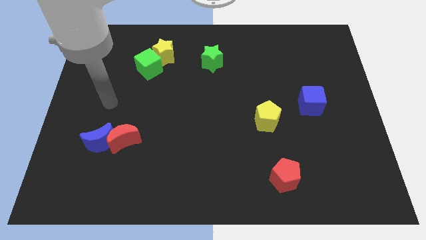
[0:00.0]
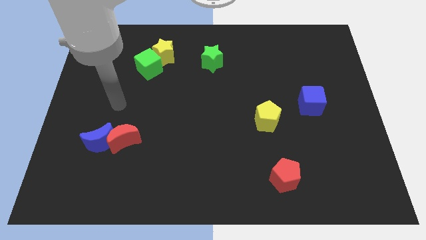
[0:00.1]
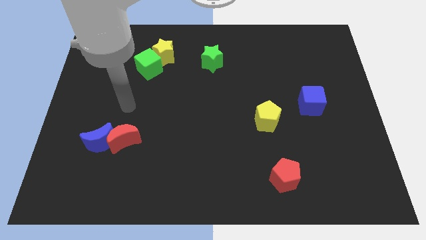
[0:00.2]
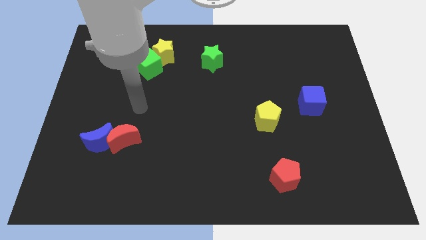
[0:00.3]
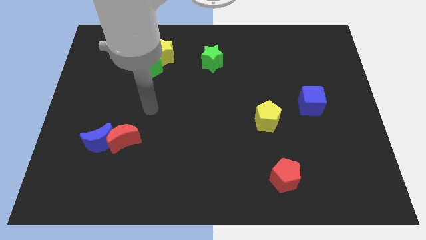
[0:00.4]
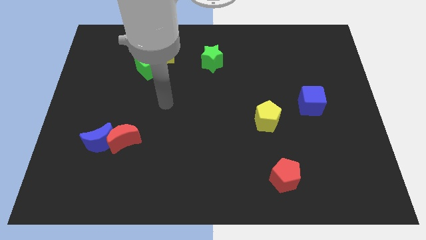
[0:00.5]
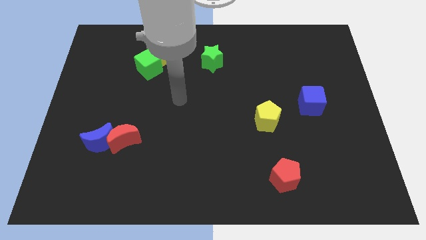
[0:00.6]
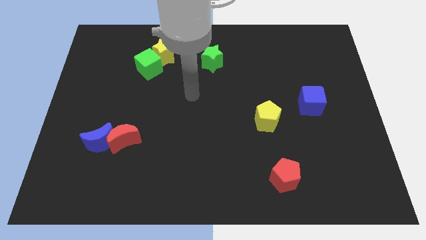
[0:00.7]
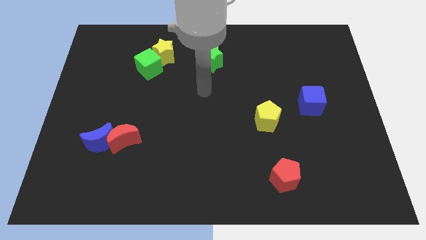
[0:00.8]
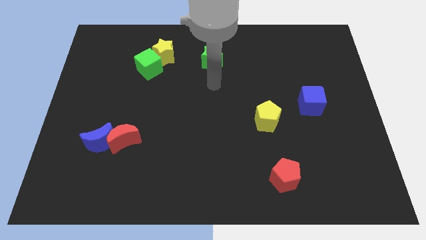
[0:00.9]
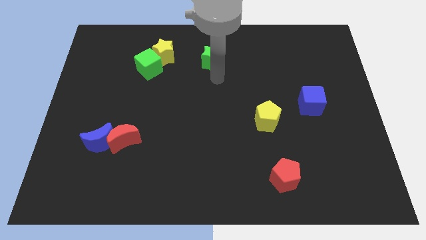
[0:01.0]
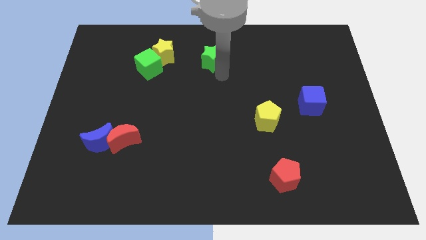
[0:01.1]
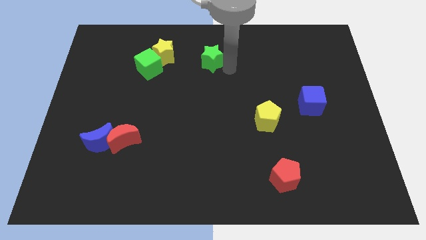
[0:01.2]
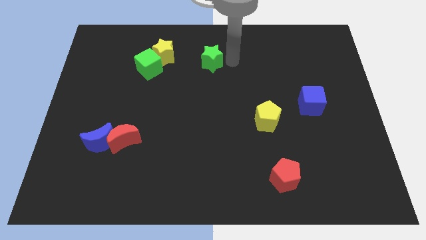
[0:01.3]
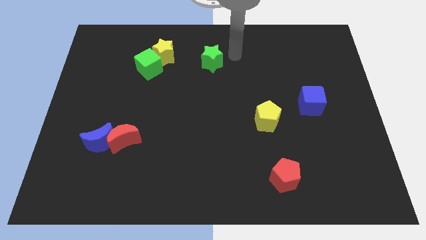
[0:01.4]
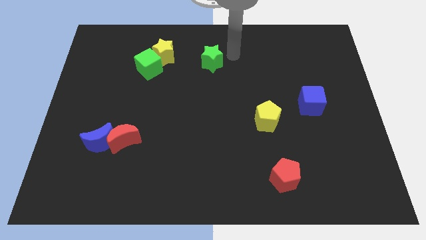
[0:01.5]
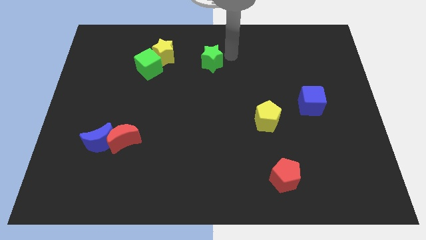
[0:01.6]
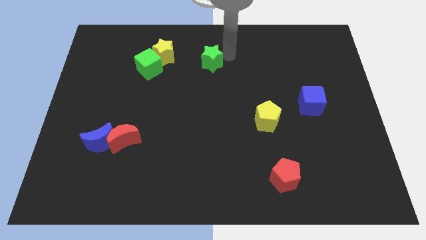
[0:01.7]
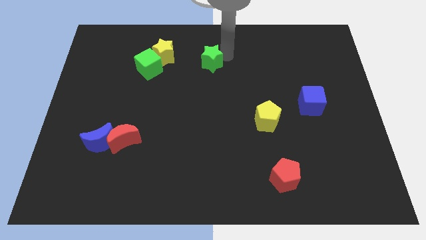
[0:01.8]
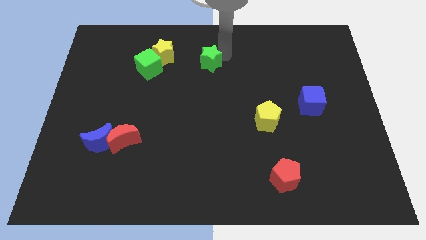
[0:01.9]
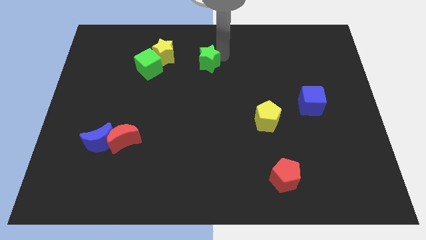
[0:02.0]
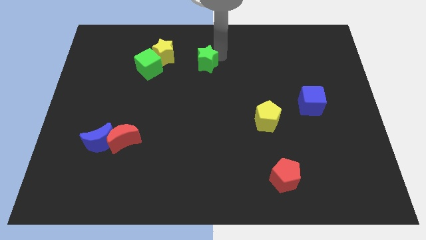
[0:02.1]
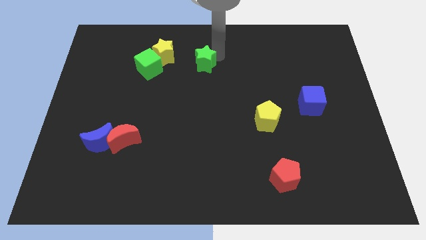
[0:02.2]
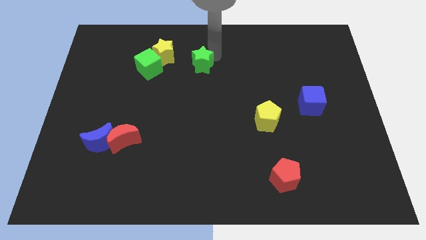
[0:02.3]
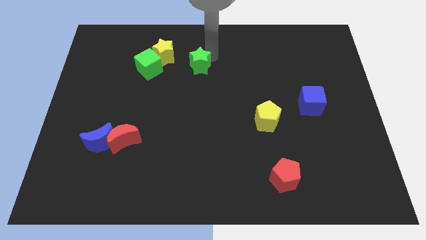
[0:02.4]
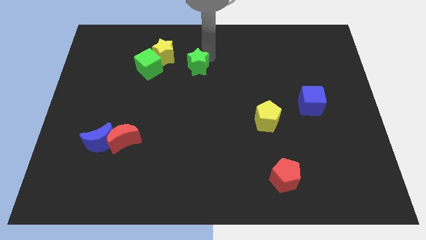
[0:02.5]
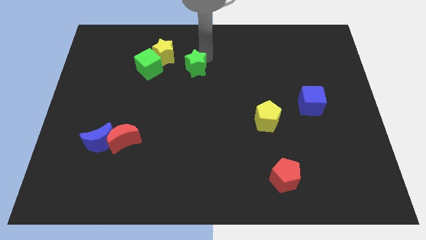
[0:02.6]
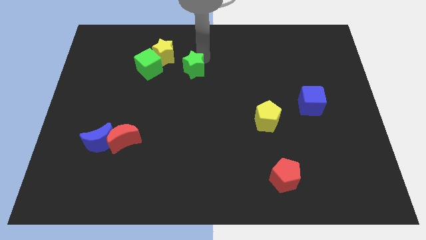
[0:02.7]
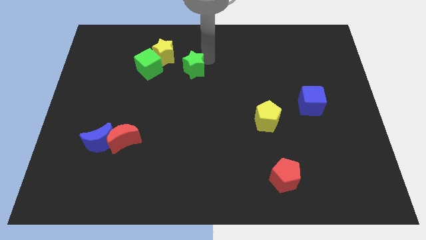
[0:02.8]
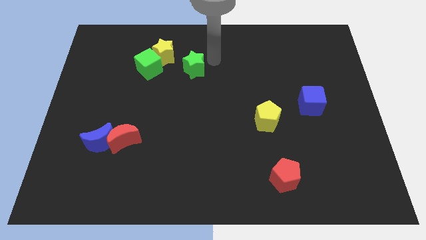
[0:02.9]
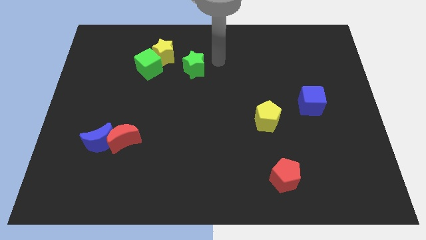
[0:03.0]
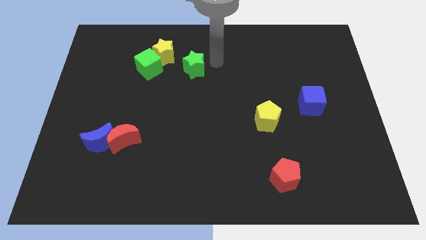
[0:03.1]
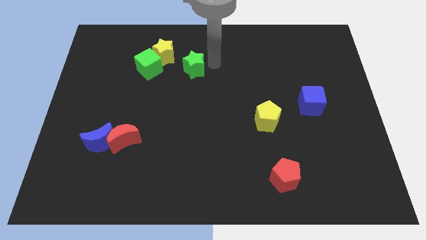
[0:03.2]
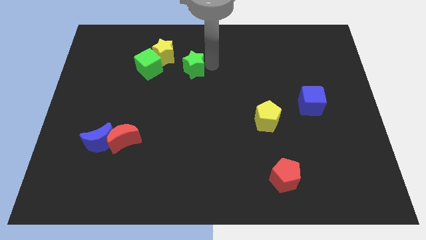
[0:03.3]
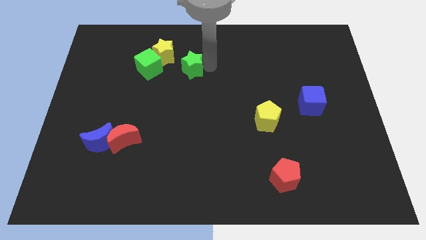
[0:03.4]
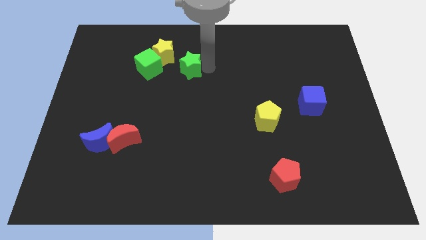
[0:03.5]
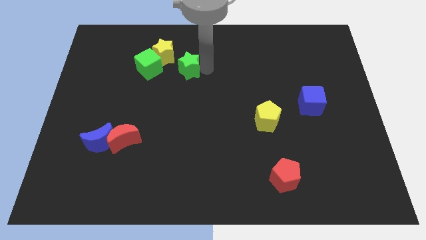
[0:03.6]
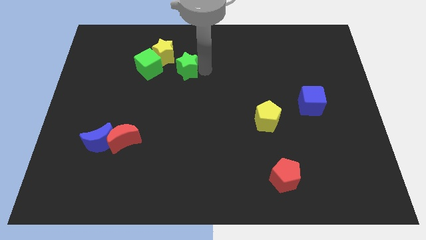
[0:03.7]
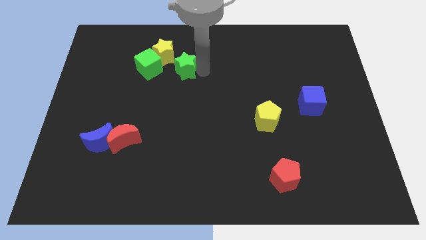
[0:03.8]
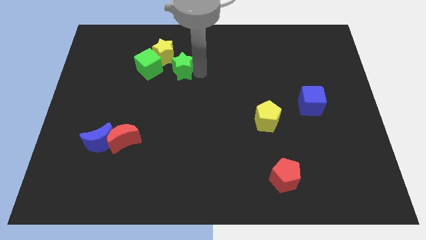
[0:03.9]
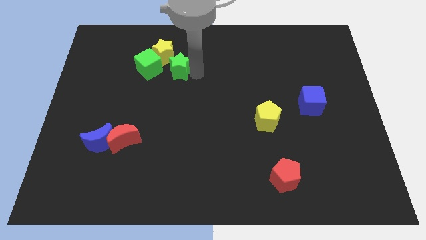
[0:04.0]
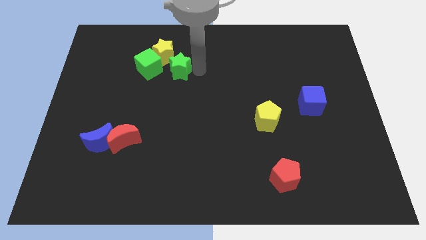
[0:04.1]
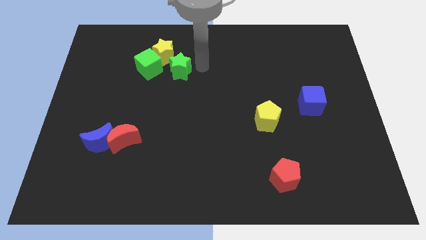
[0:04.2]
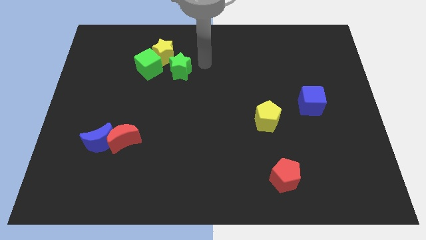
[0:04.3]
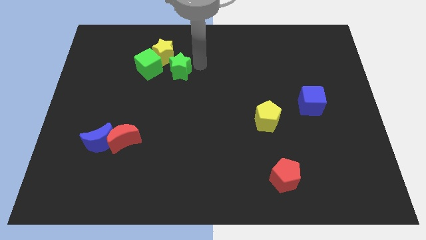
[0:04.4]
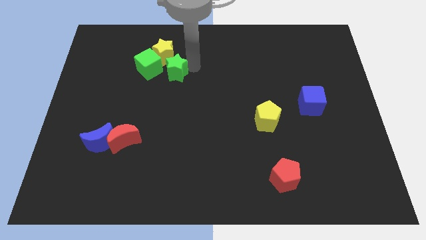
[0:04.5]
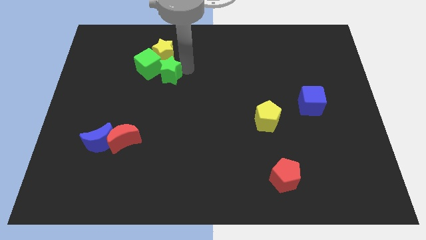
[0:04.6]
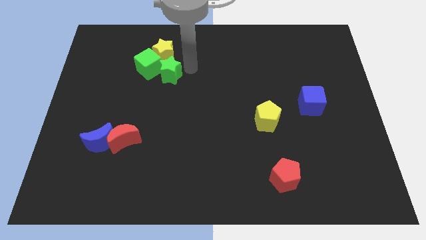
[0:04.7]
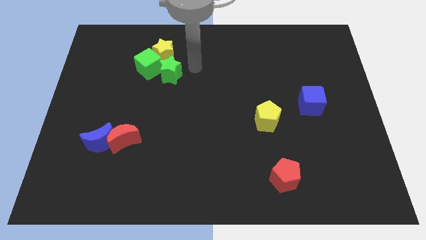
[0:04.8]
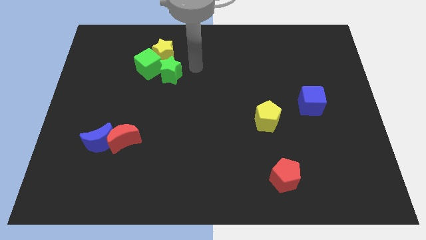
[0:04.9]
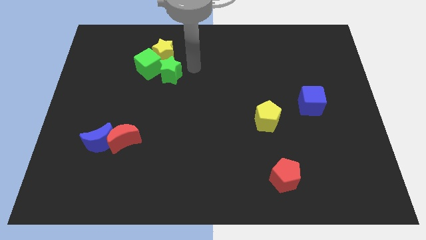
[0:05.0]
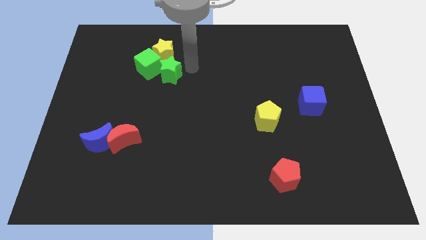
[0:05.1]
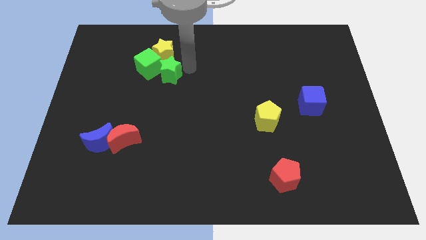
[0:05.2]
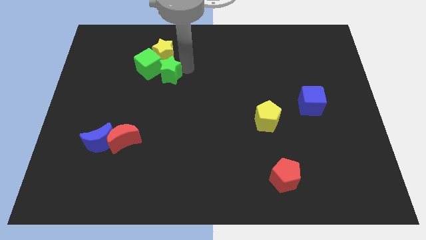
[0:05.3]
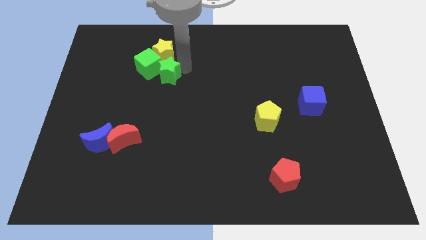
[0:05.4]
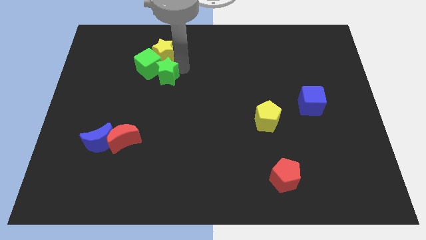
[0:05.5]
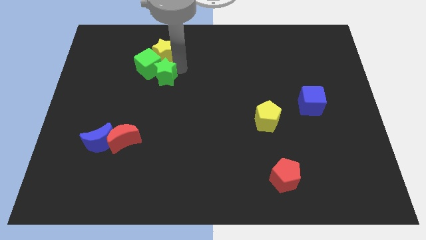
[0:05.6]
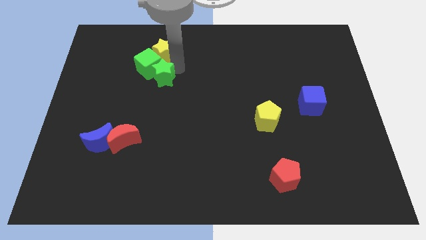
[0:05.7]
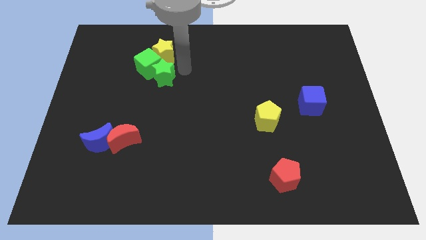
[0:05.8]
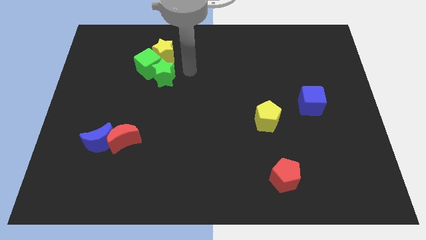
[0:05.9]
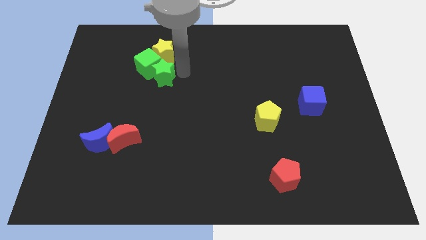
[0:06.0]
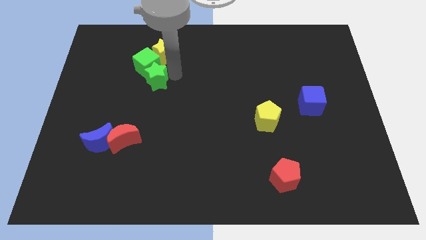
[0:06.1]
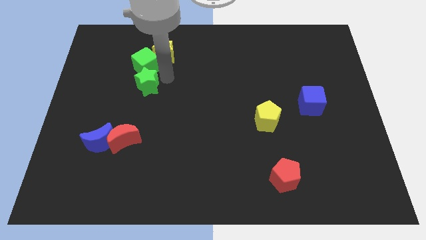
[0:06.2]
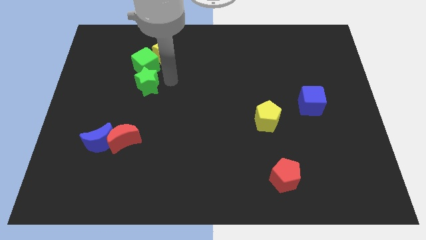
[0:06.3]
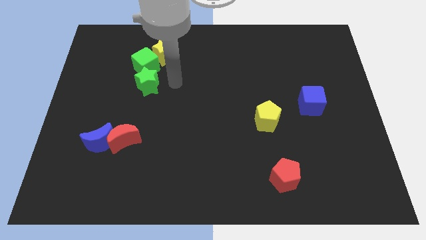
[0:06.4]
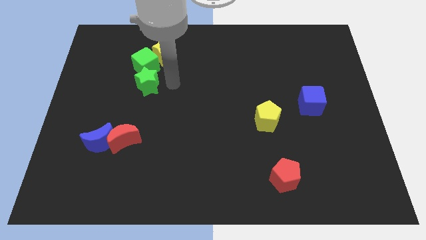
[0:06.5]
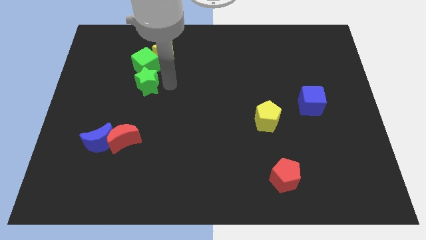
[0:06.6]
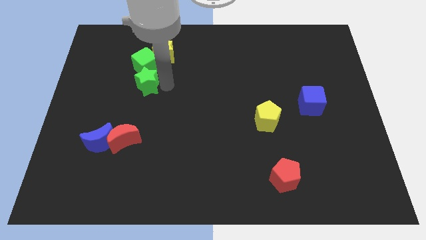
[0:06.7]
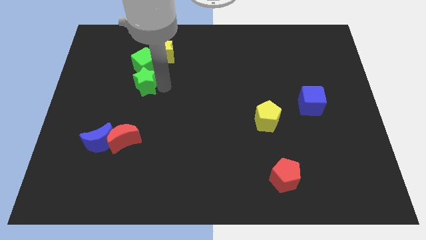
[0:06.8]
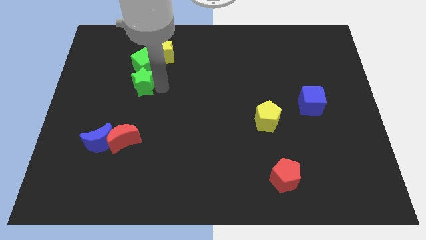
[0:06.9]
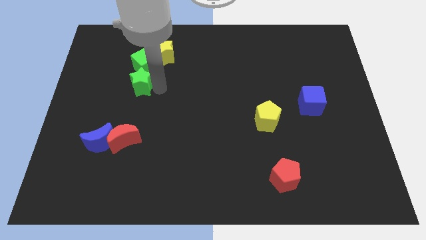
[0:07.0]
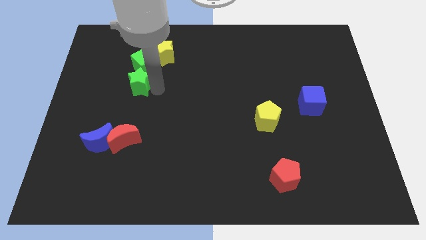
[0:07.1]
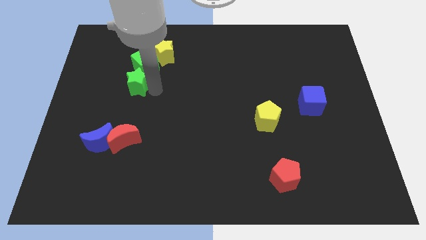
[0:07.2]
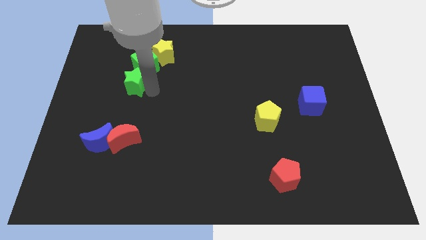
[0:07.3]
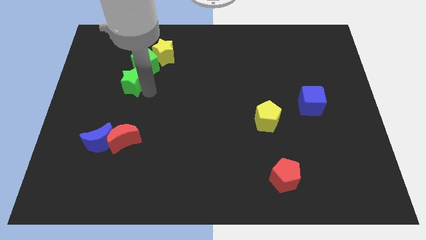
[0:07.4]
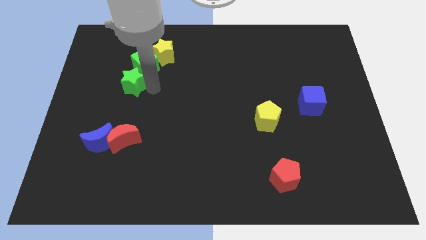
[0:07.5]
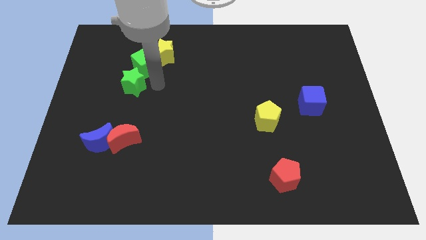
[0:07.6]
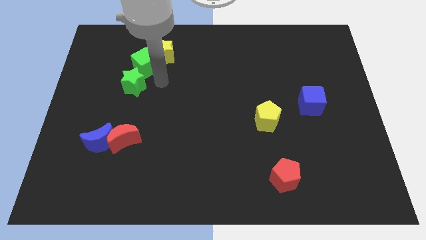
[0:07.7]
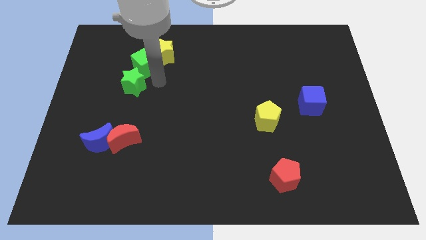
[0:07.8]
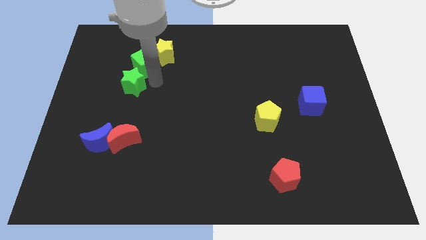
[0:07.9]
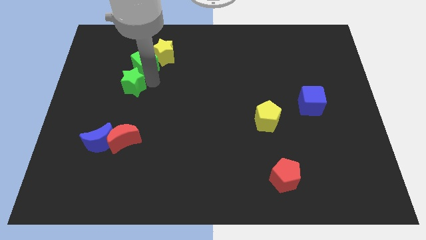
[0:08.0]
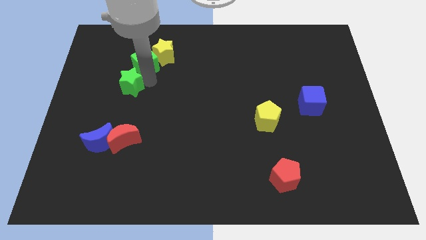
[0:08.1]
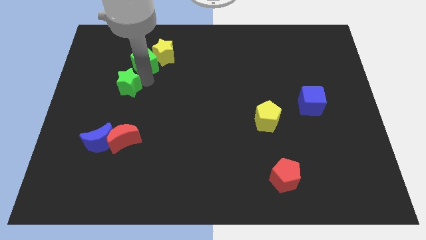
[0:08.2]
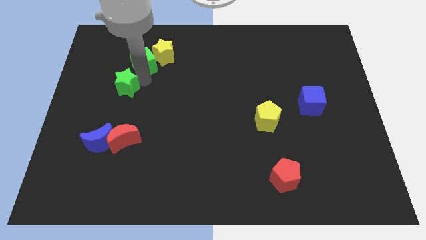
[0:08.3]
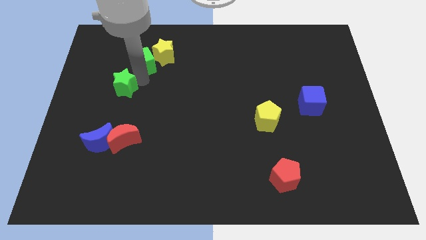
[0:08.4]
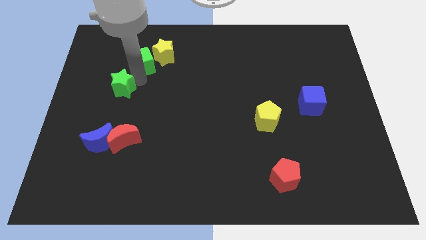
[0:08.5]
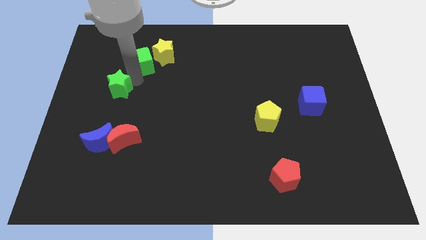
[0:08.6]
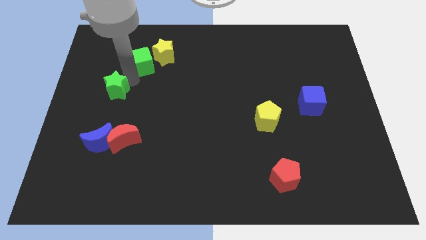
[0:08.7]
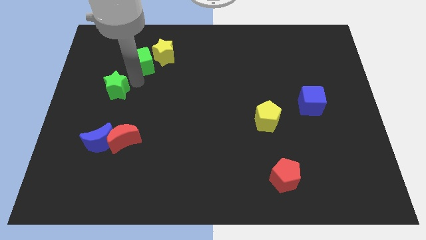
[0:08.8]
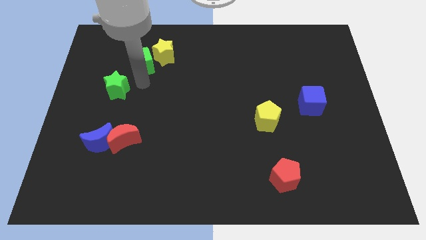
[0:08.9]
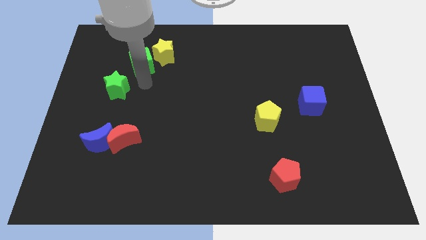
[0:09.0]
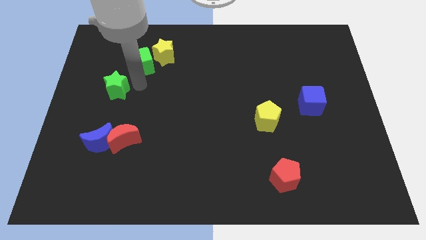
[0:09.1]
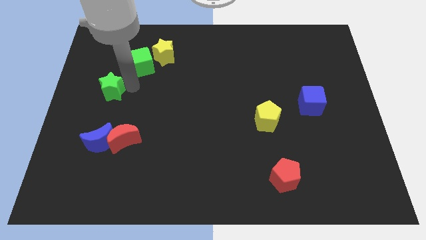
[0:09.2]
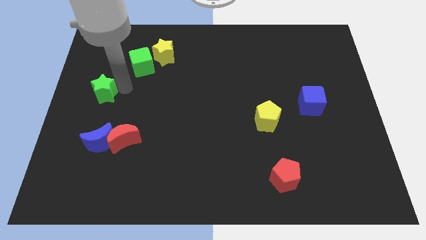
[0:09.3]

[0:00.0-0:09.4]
move the green star to the center left
